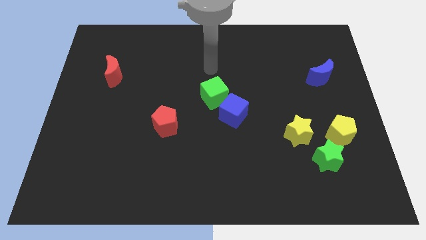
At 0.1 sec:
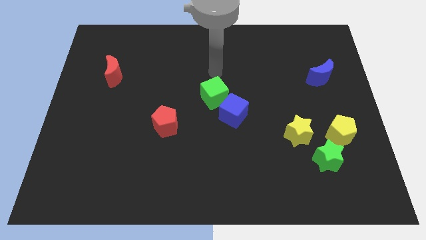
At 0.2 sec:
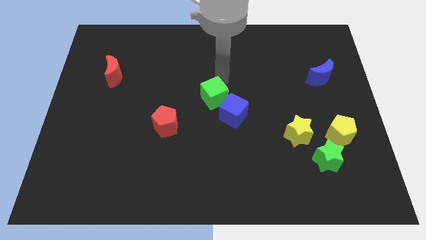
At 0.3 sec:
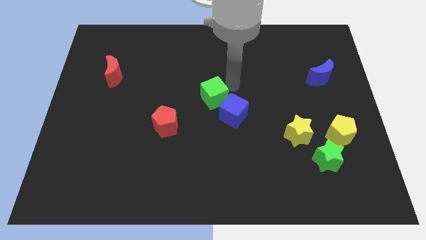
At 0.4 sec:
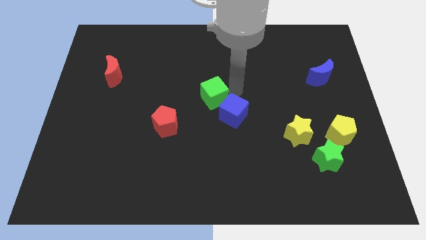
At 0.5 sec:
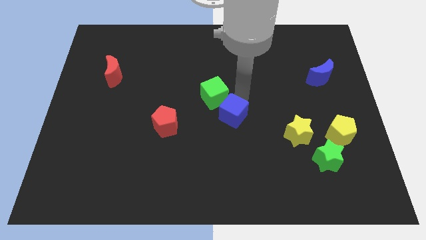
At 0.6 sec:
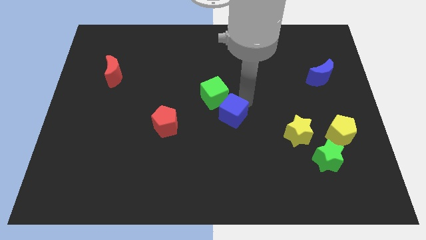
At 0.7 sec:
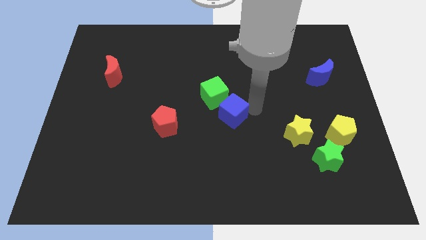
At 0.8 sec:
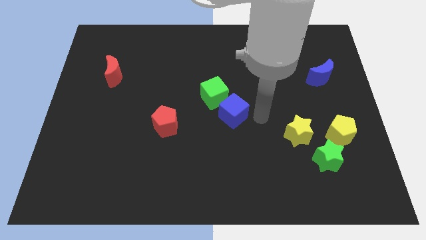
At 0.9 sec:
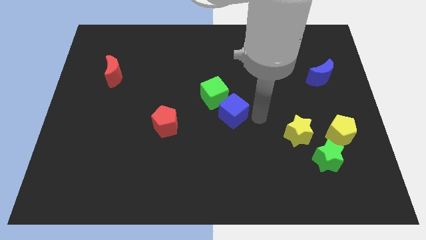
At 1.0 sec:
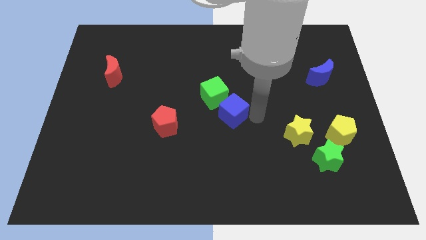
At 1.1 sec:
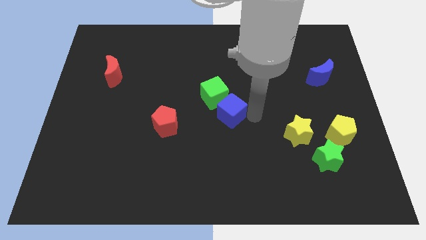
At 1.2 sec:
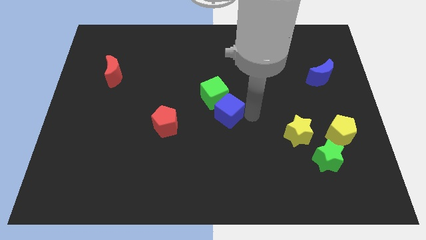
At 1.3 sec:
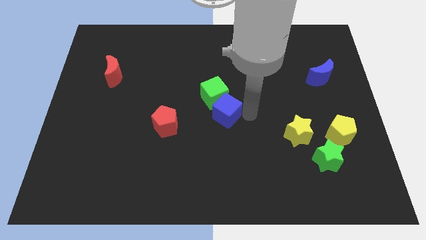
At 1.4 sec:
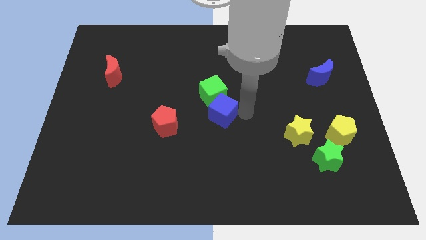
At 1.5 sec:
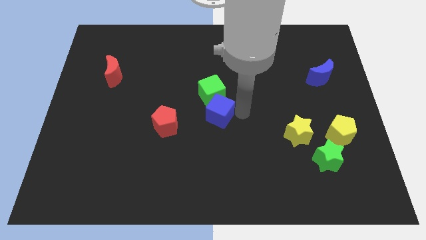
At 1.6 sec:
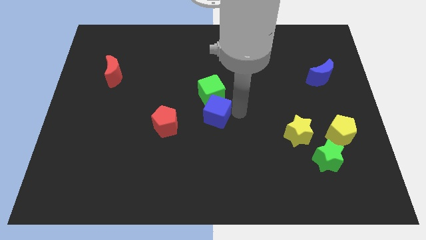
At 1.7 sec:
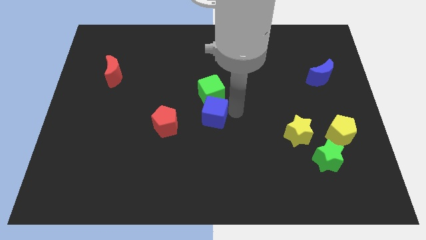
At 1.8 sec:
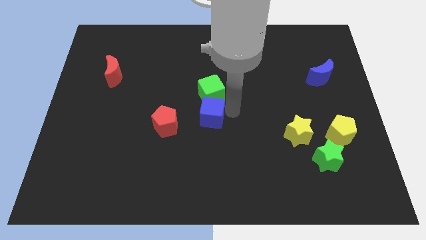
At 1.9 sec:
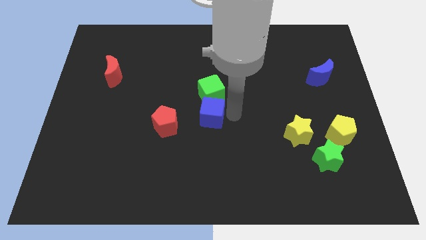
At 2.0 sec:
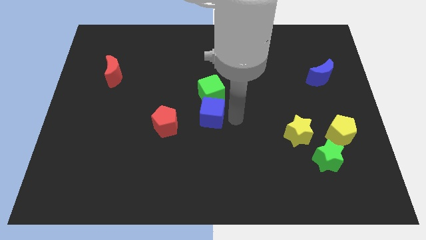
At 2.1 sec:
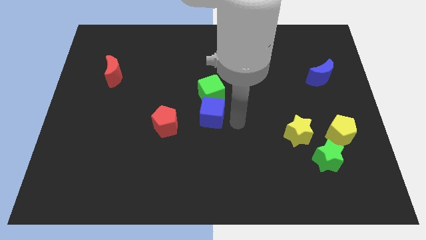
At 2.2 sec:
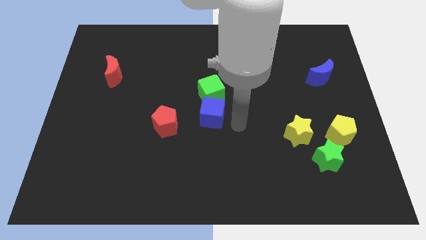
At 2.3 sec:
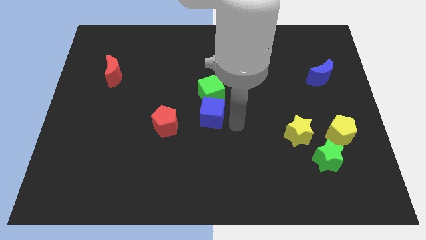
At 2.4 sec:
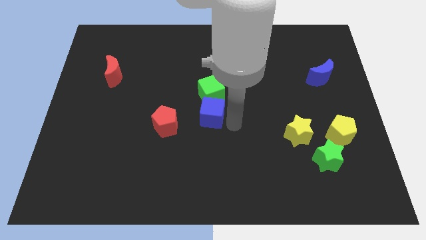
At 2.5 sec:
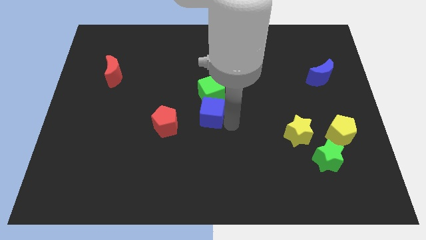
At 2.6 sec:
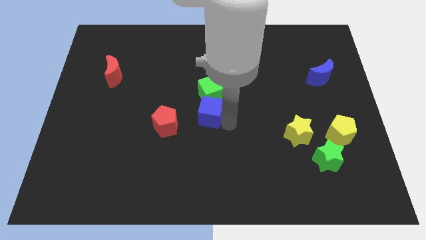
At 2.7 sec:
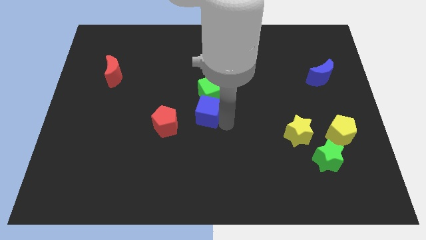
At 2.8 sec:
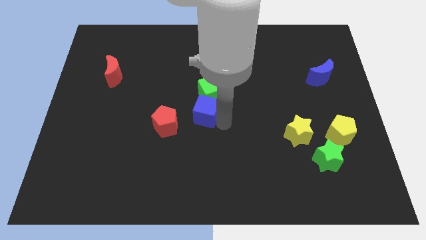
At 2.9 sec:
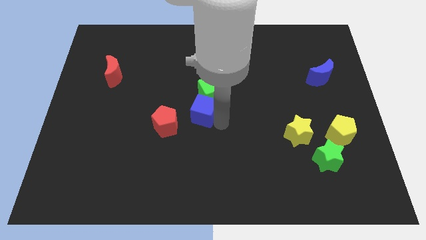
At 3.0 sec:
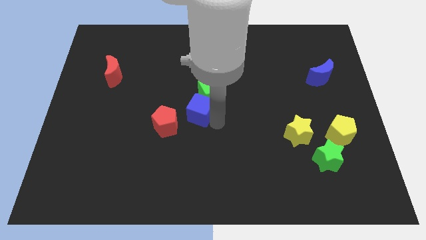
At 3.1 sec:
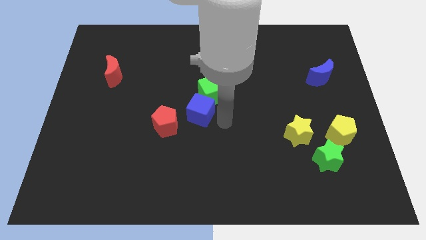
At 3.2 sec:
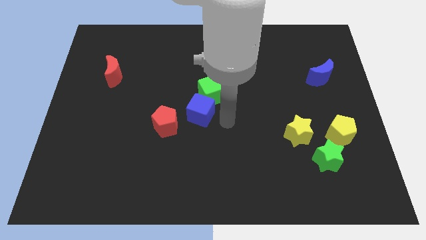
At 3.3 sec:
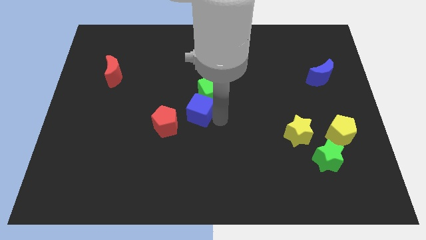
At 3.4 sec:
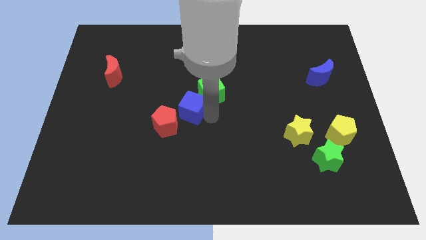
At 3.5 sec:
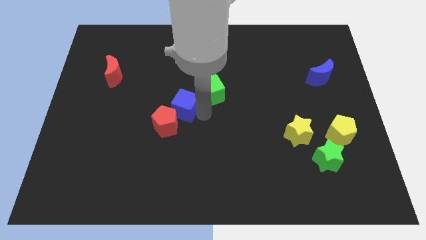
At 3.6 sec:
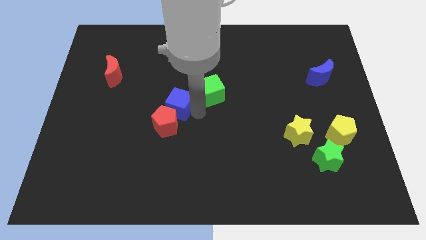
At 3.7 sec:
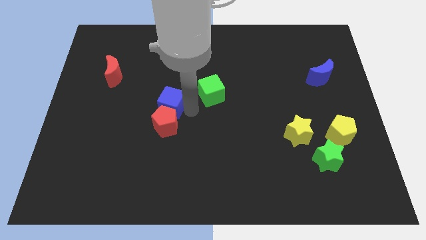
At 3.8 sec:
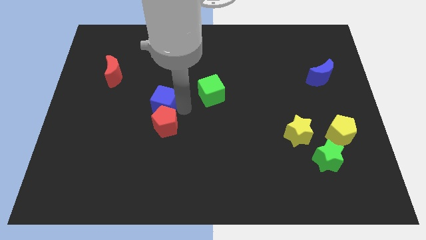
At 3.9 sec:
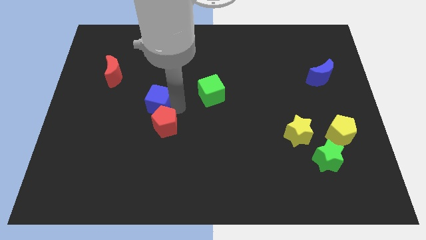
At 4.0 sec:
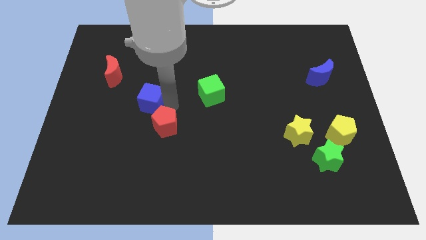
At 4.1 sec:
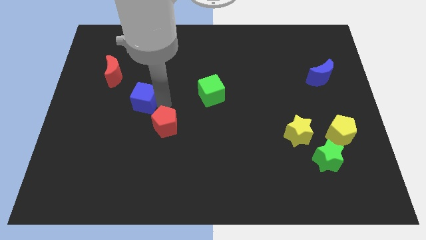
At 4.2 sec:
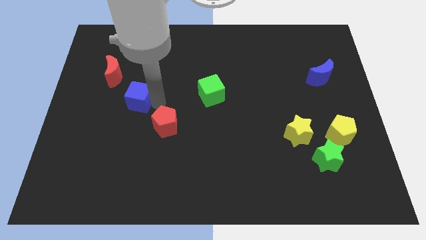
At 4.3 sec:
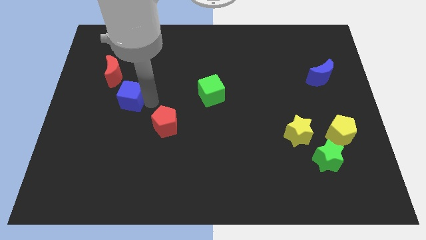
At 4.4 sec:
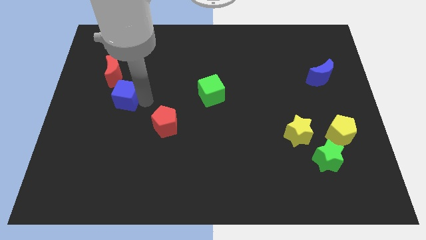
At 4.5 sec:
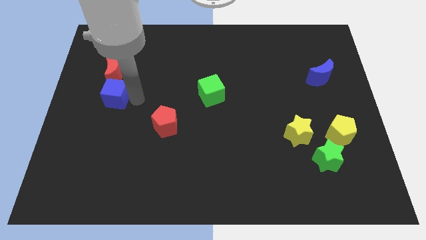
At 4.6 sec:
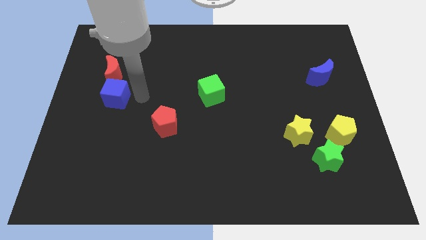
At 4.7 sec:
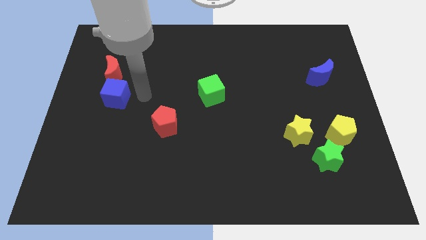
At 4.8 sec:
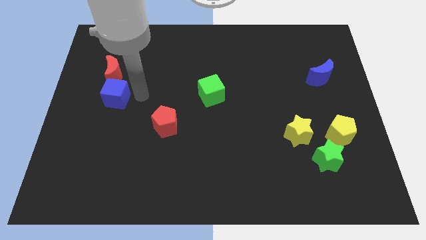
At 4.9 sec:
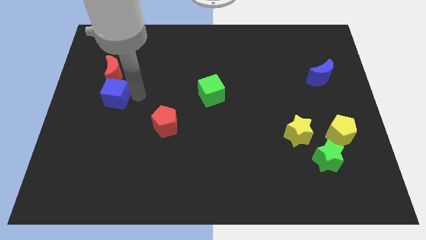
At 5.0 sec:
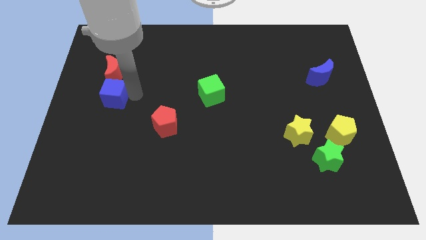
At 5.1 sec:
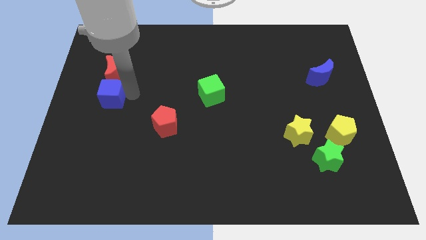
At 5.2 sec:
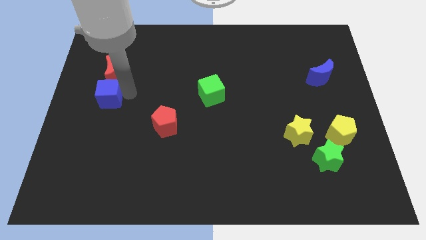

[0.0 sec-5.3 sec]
move the blue cube to the left side

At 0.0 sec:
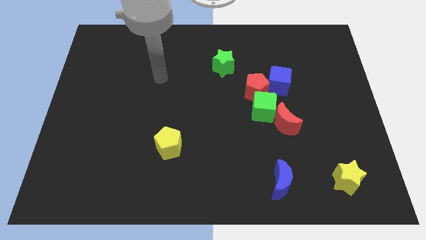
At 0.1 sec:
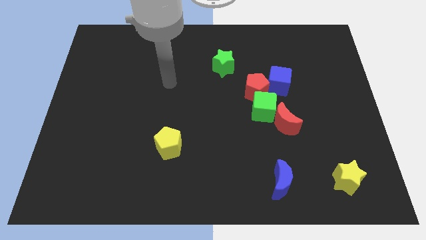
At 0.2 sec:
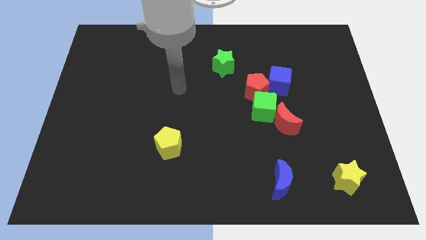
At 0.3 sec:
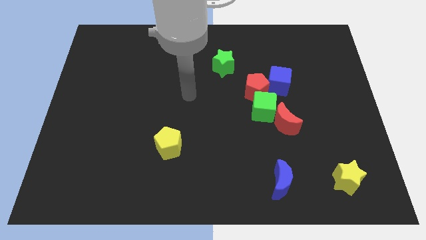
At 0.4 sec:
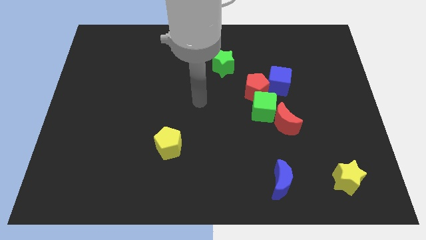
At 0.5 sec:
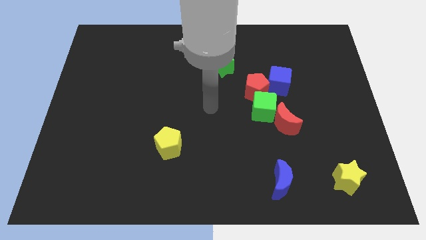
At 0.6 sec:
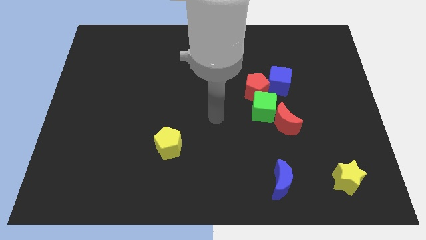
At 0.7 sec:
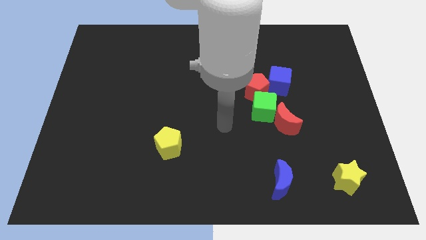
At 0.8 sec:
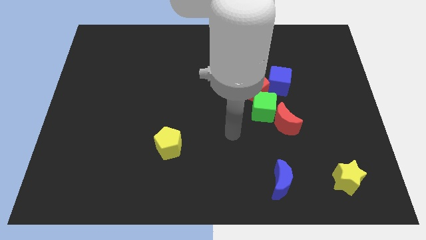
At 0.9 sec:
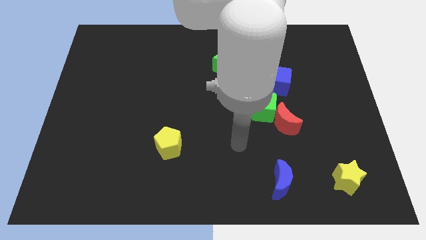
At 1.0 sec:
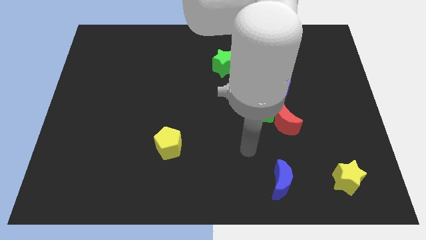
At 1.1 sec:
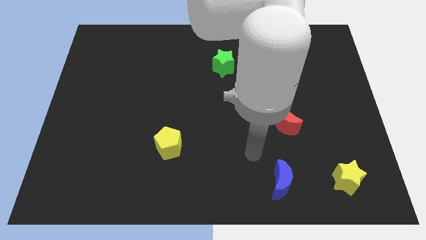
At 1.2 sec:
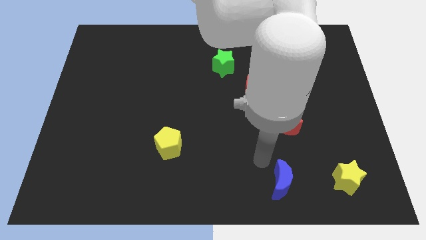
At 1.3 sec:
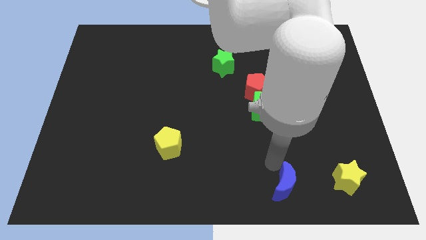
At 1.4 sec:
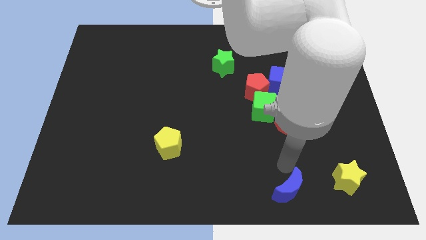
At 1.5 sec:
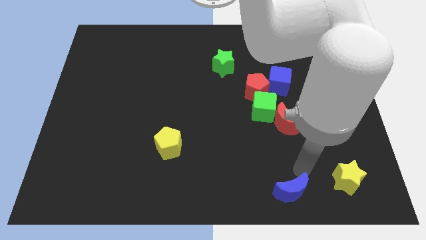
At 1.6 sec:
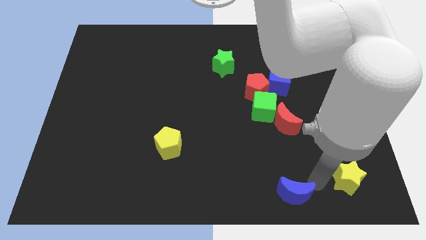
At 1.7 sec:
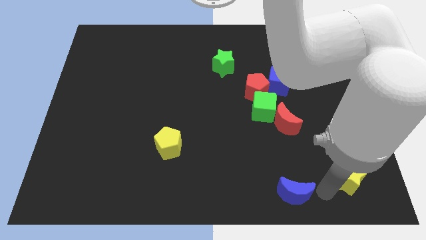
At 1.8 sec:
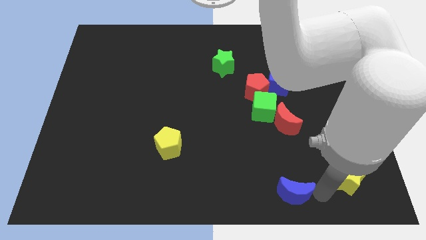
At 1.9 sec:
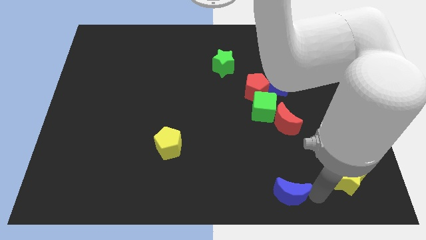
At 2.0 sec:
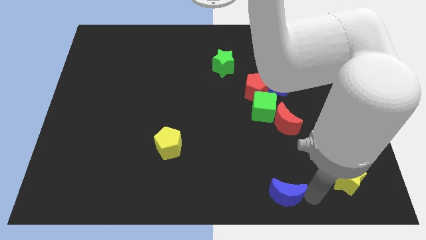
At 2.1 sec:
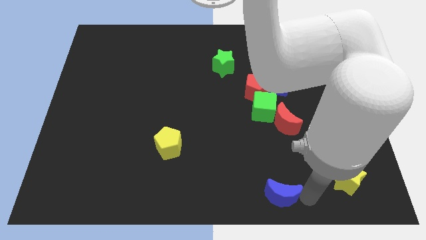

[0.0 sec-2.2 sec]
put the blue moon to the bottom side
